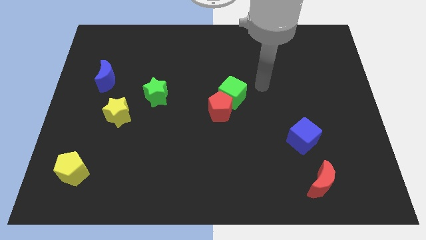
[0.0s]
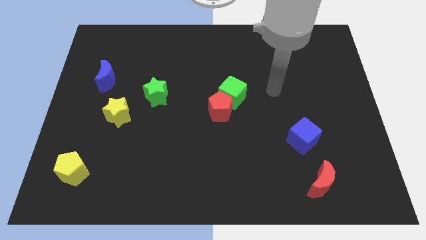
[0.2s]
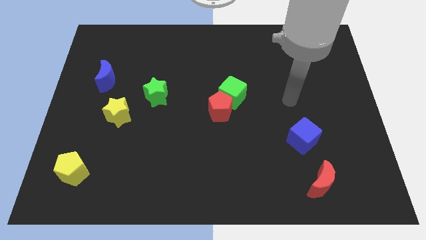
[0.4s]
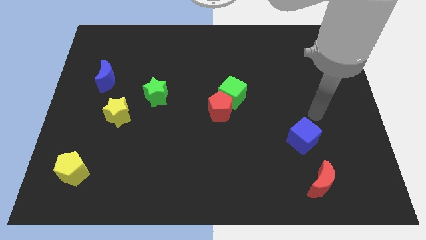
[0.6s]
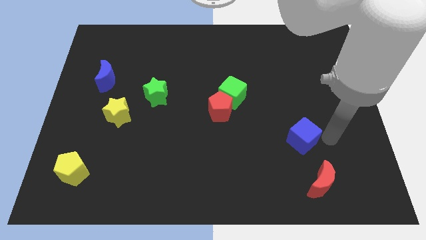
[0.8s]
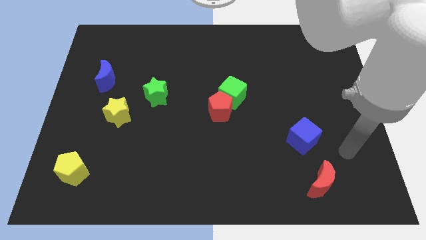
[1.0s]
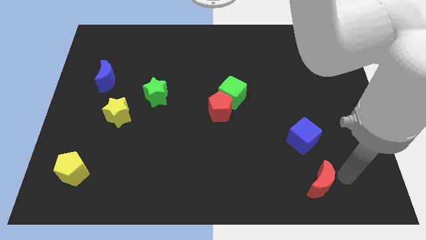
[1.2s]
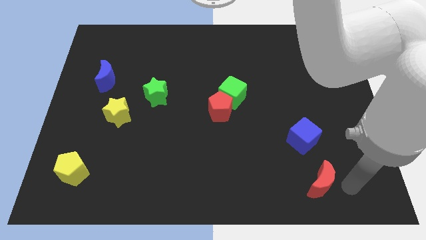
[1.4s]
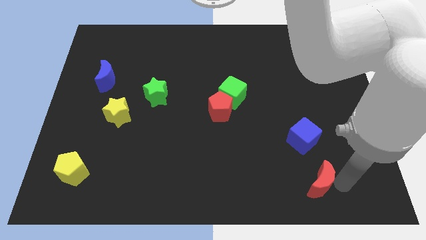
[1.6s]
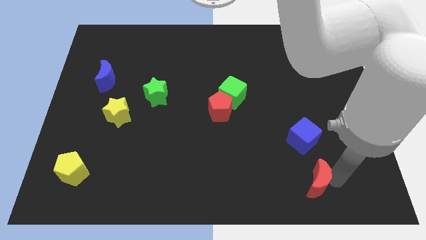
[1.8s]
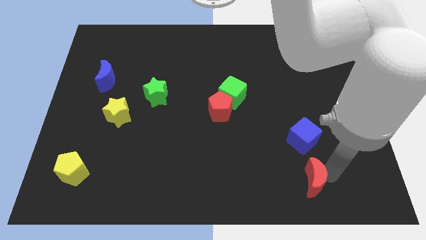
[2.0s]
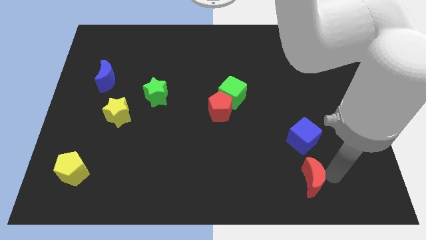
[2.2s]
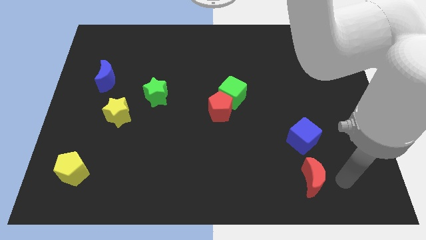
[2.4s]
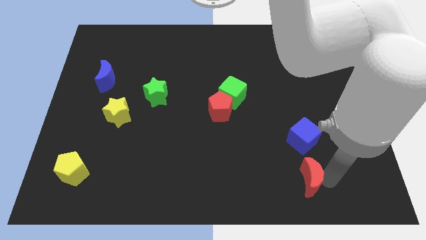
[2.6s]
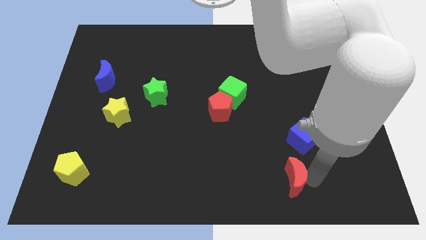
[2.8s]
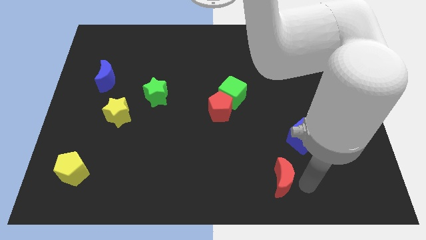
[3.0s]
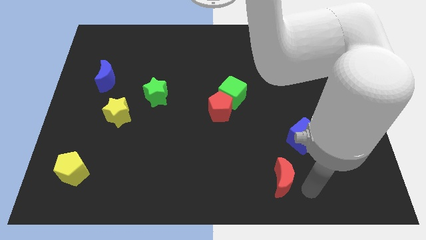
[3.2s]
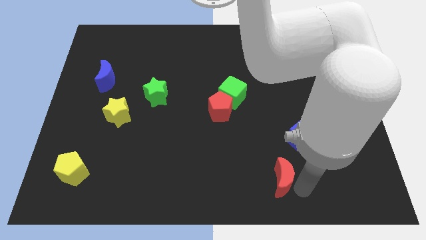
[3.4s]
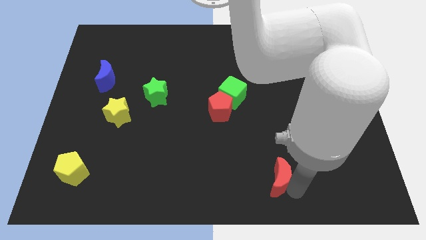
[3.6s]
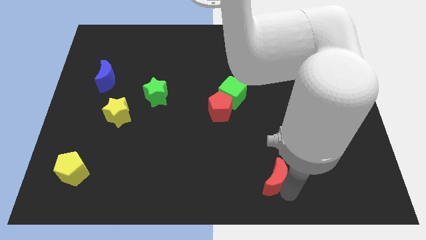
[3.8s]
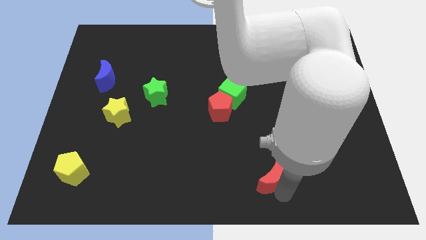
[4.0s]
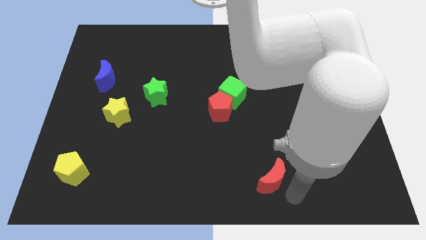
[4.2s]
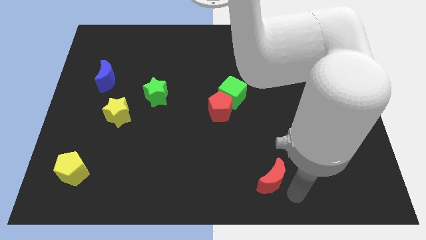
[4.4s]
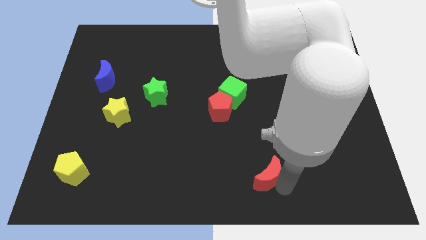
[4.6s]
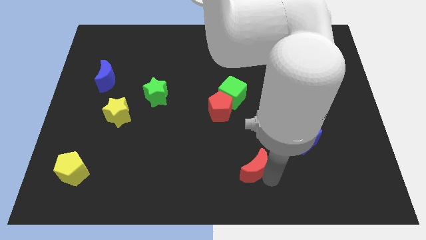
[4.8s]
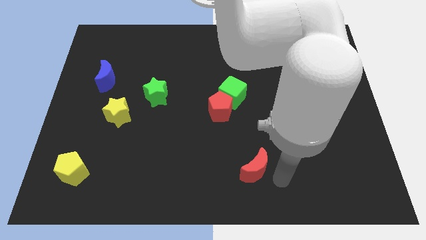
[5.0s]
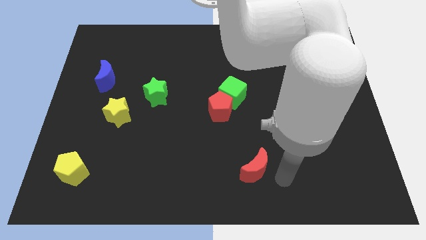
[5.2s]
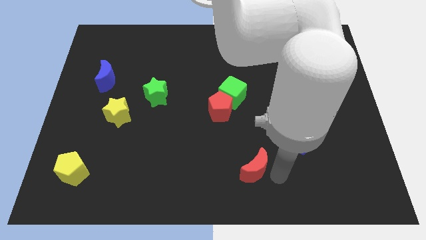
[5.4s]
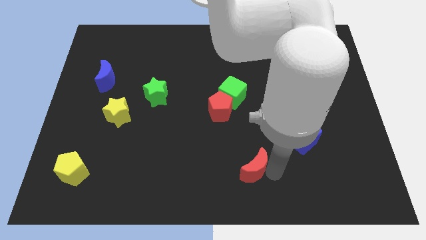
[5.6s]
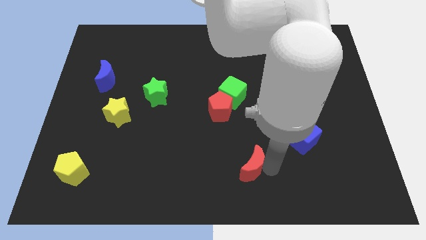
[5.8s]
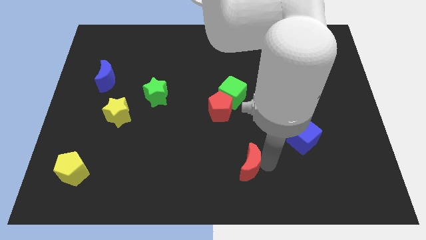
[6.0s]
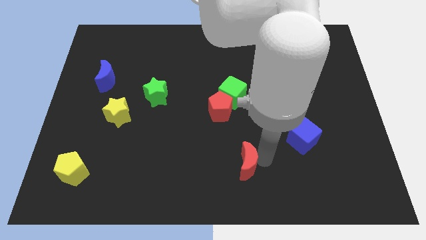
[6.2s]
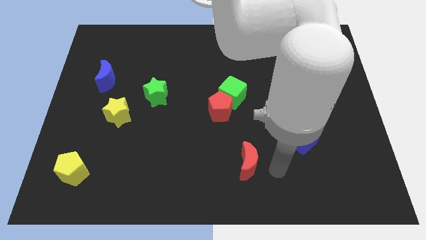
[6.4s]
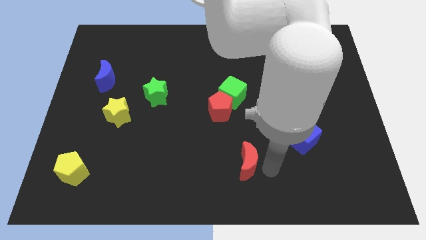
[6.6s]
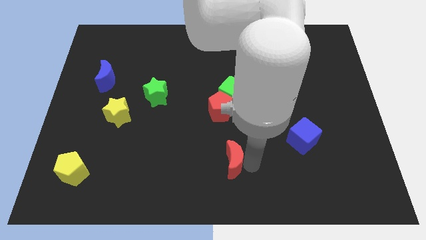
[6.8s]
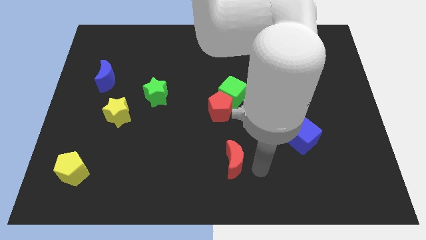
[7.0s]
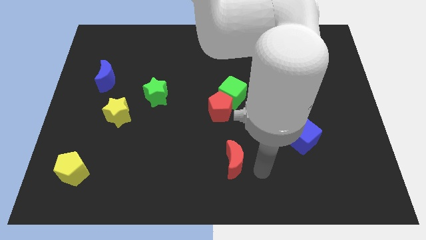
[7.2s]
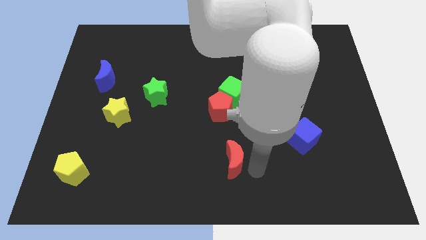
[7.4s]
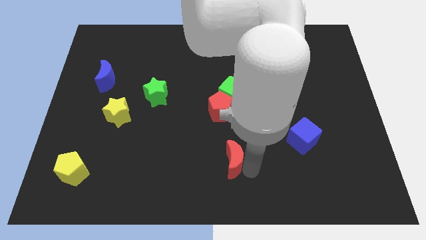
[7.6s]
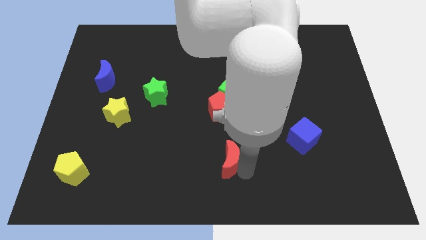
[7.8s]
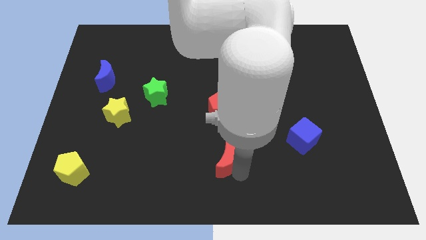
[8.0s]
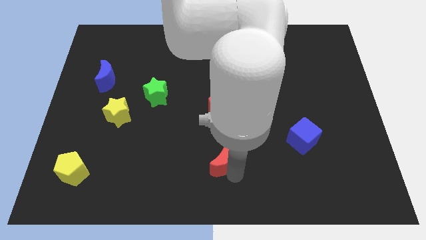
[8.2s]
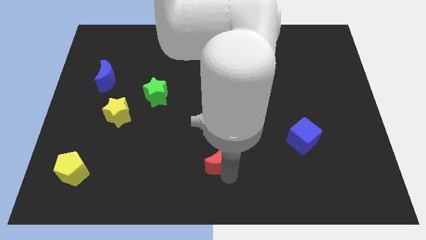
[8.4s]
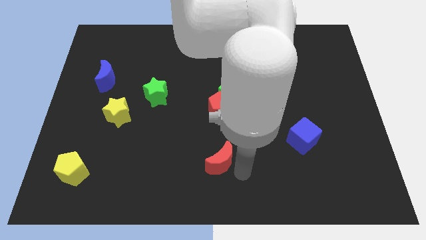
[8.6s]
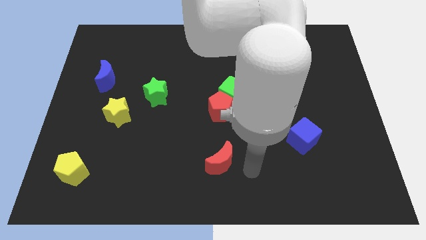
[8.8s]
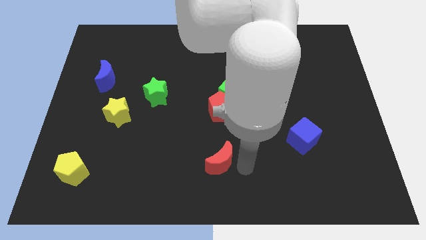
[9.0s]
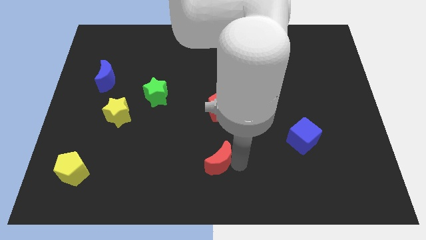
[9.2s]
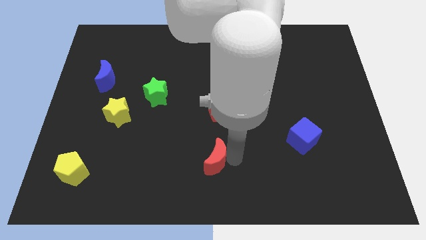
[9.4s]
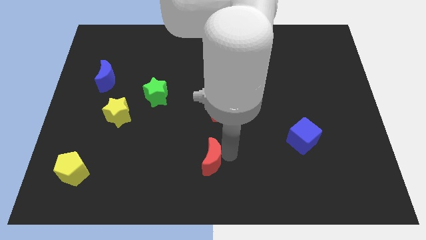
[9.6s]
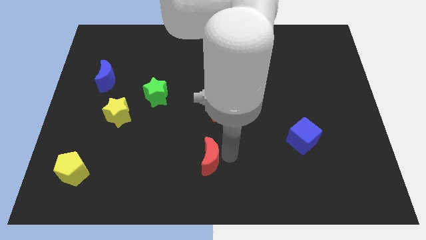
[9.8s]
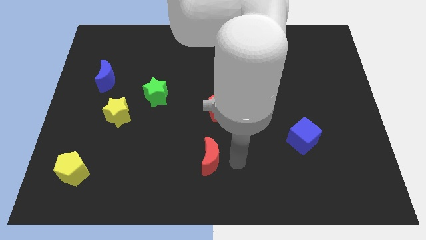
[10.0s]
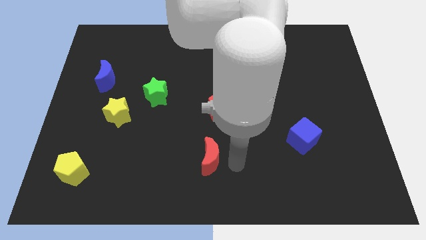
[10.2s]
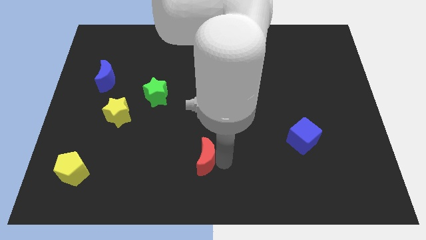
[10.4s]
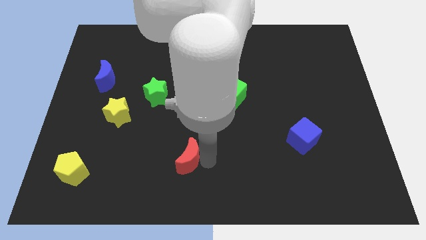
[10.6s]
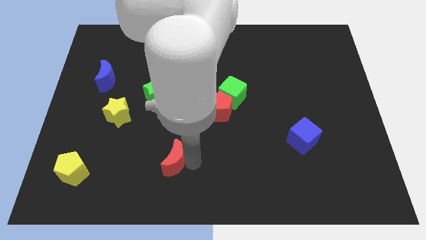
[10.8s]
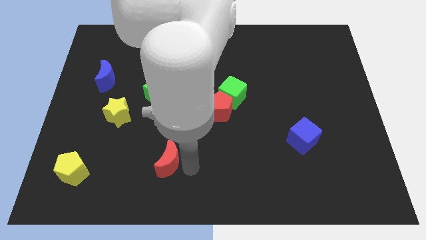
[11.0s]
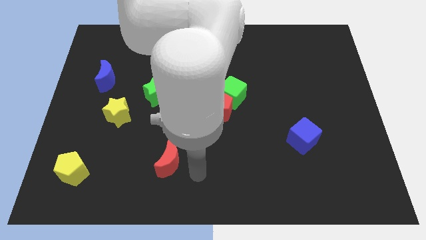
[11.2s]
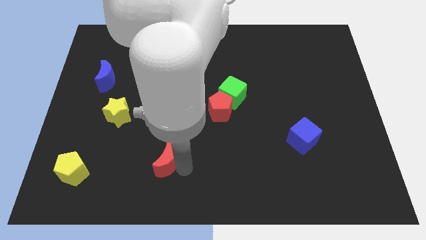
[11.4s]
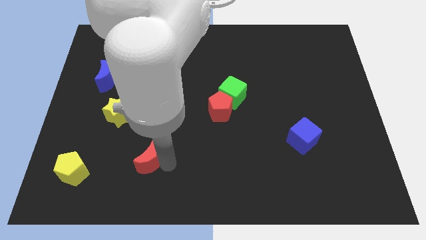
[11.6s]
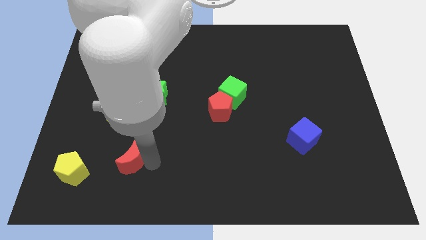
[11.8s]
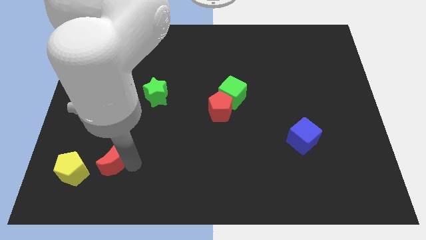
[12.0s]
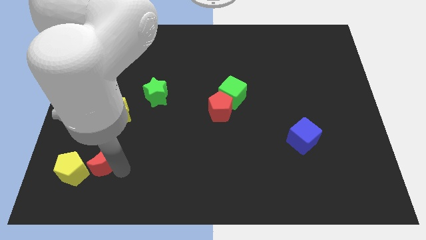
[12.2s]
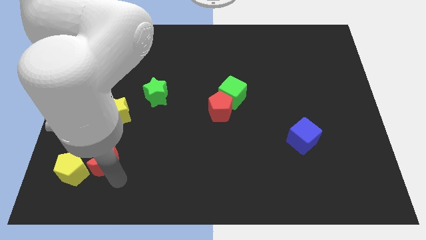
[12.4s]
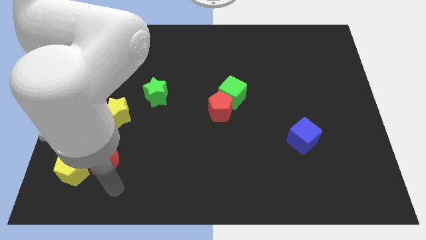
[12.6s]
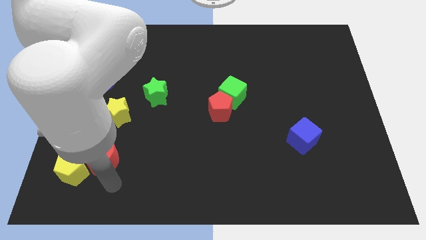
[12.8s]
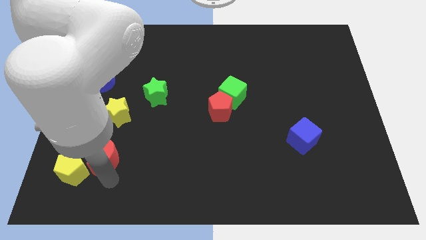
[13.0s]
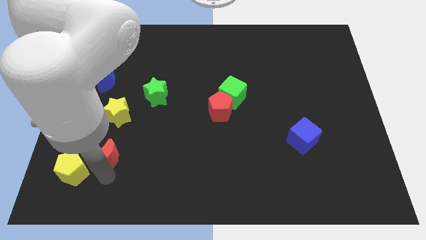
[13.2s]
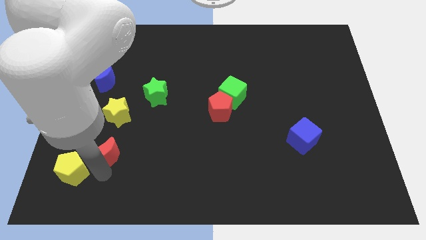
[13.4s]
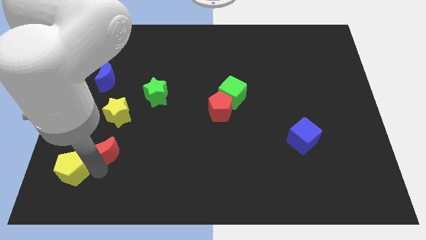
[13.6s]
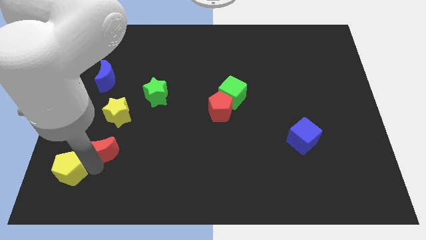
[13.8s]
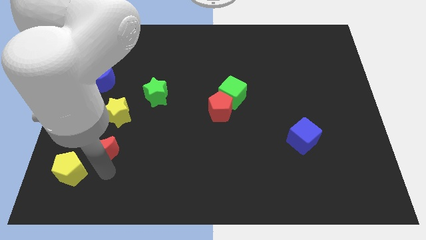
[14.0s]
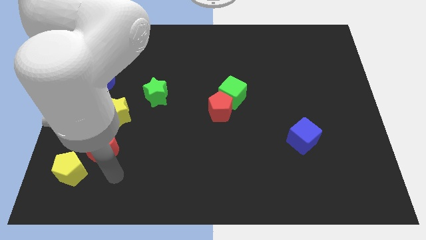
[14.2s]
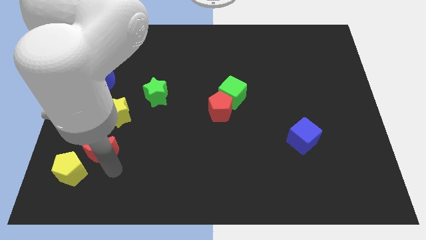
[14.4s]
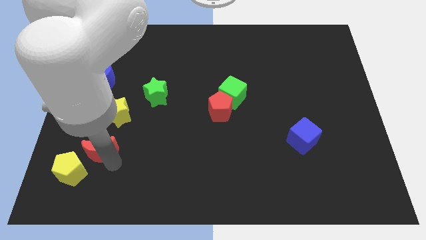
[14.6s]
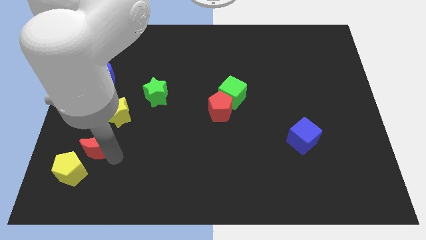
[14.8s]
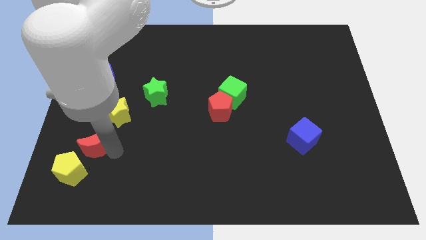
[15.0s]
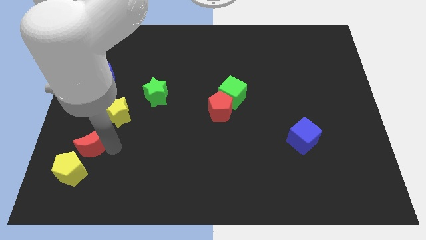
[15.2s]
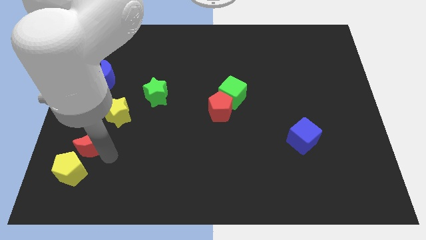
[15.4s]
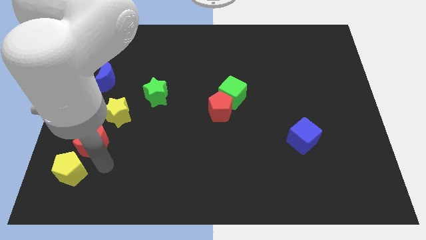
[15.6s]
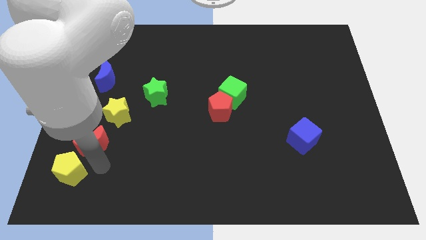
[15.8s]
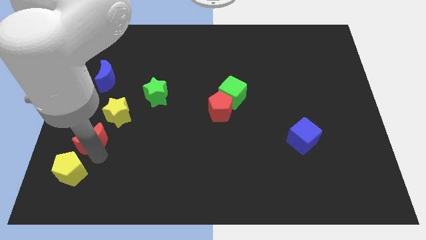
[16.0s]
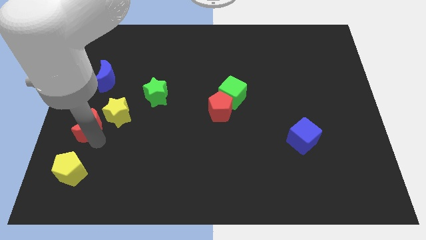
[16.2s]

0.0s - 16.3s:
put the red moon to the center left
